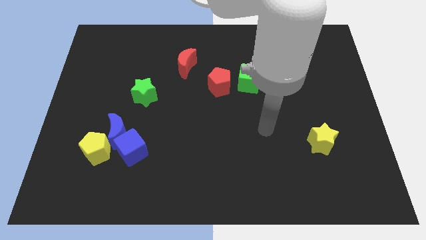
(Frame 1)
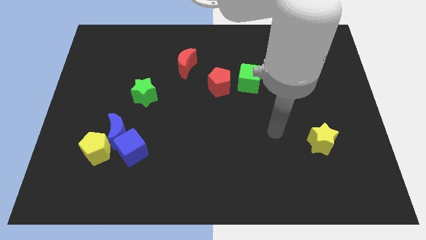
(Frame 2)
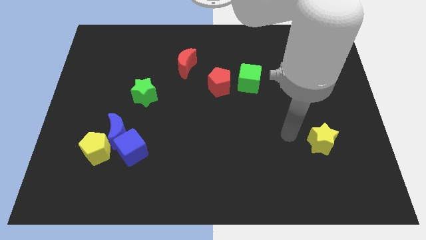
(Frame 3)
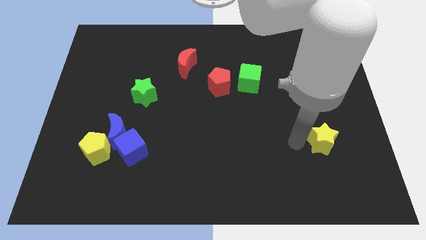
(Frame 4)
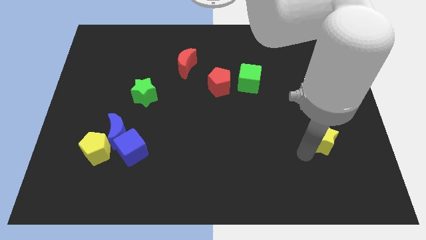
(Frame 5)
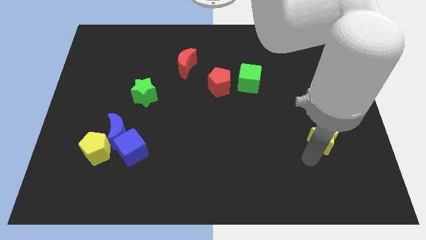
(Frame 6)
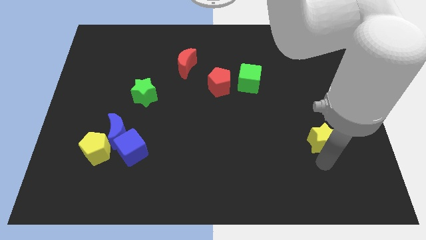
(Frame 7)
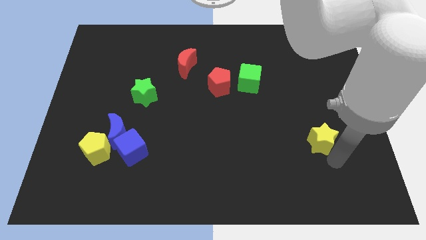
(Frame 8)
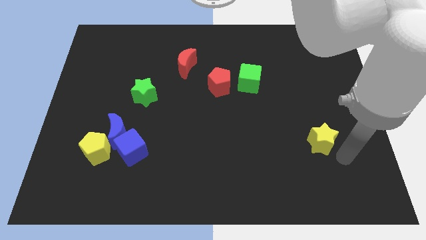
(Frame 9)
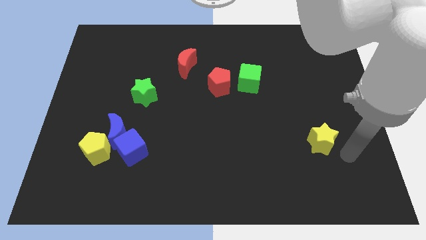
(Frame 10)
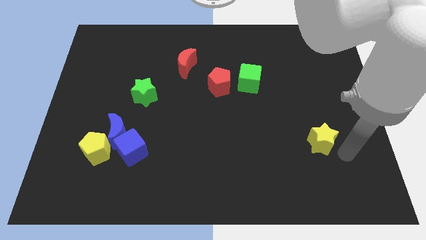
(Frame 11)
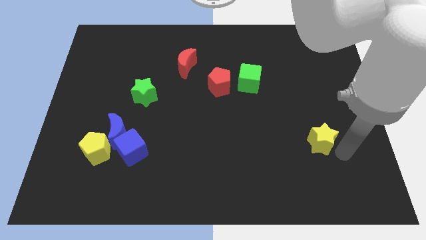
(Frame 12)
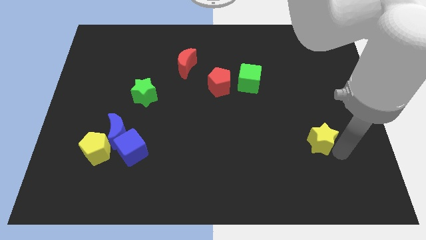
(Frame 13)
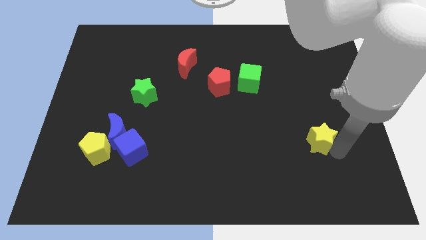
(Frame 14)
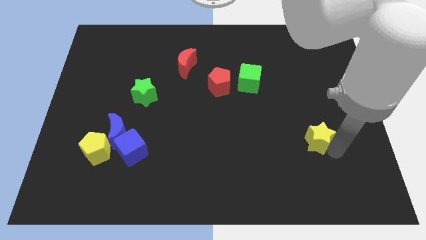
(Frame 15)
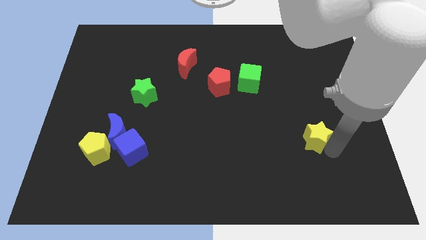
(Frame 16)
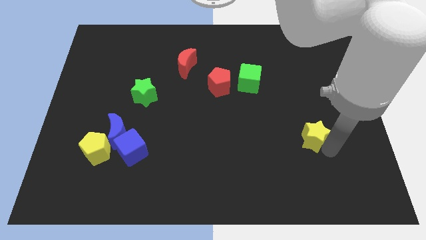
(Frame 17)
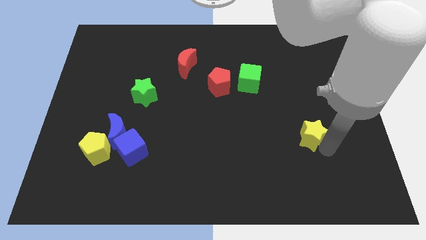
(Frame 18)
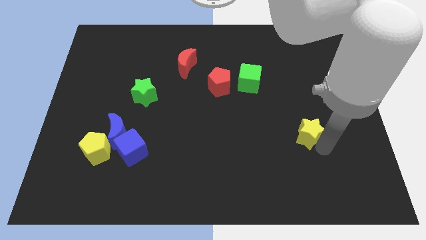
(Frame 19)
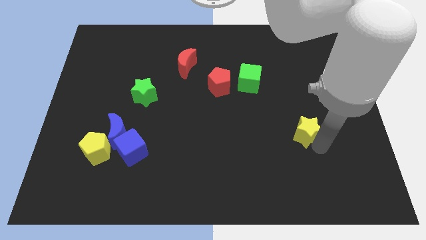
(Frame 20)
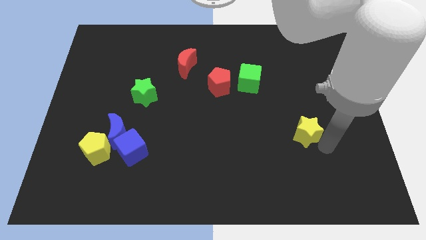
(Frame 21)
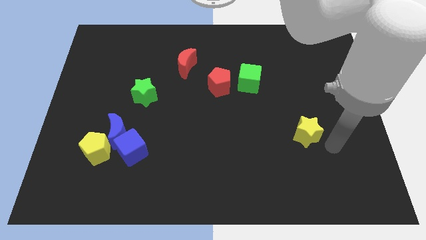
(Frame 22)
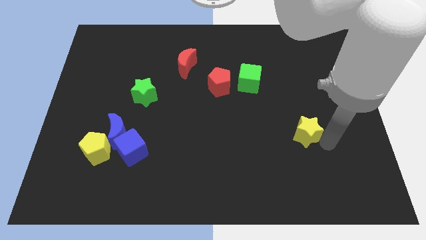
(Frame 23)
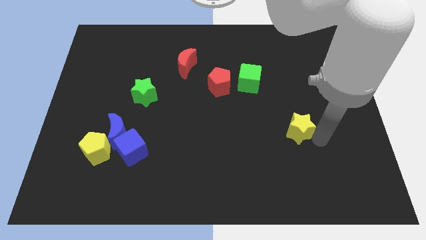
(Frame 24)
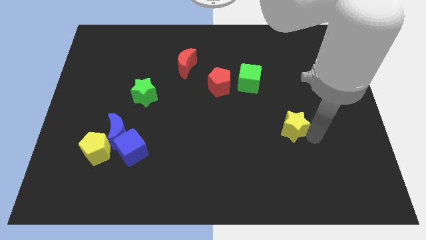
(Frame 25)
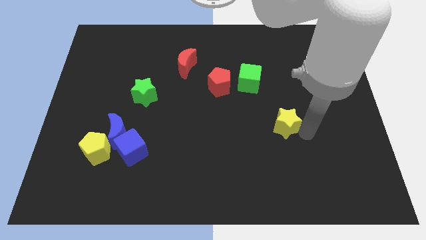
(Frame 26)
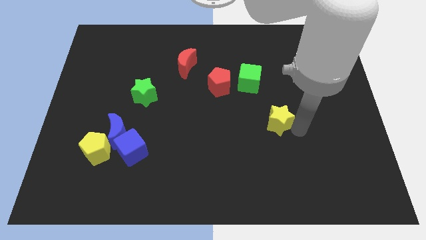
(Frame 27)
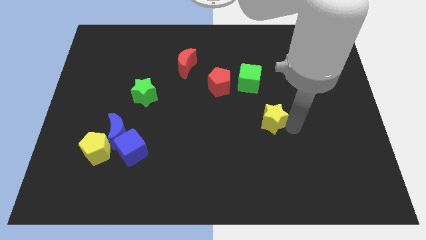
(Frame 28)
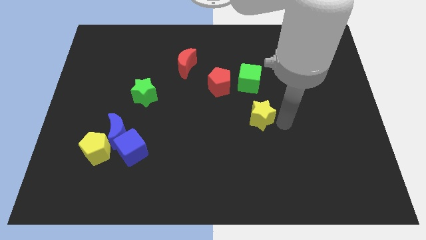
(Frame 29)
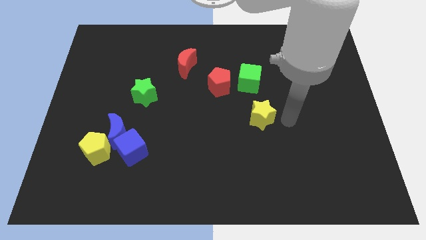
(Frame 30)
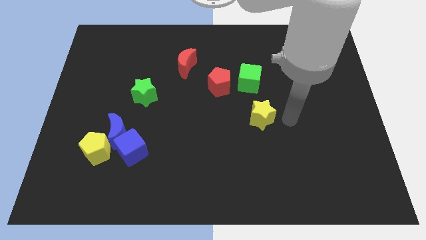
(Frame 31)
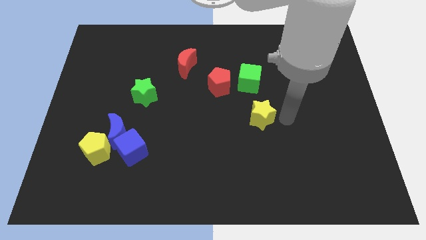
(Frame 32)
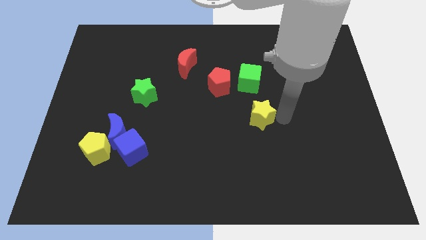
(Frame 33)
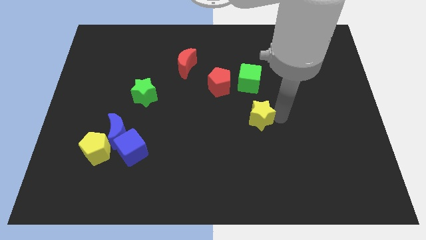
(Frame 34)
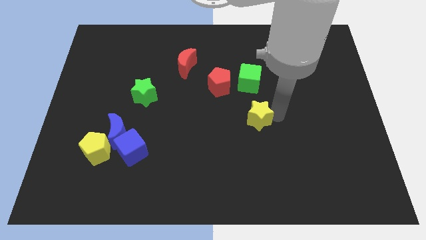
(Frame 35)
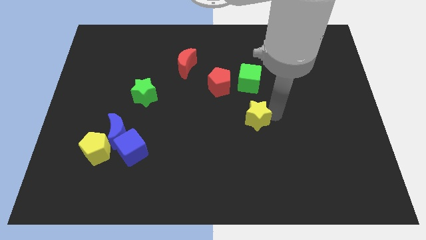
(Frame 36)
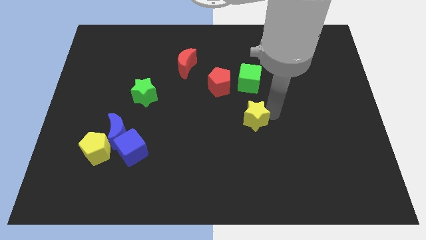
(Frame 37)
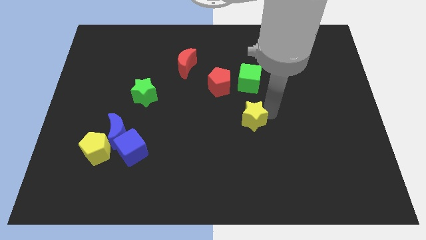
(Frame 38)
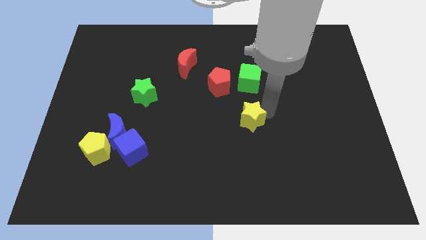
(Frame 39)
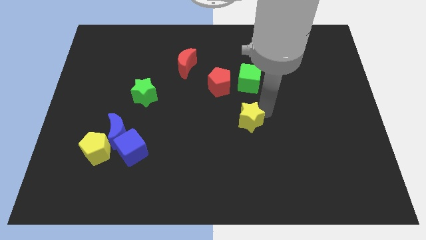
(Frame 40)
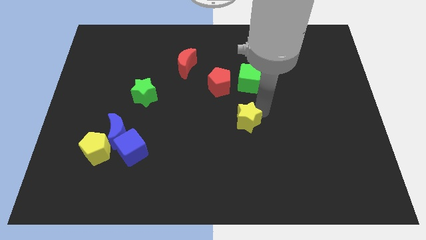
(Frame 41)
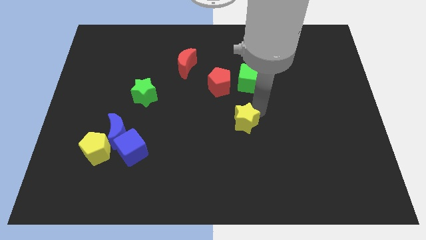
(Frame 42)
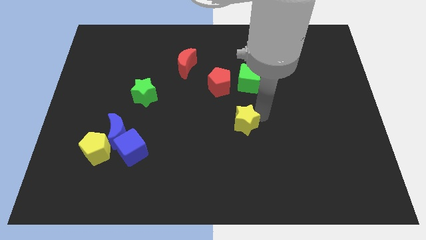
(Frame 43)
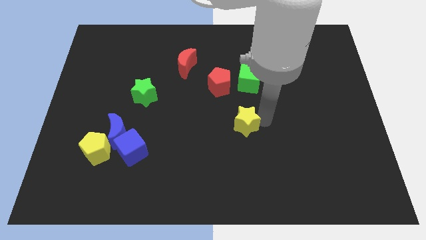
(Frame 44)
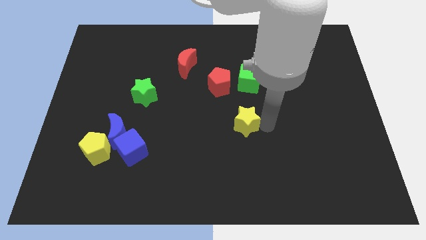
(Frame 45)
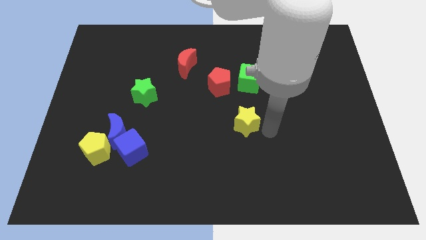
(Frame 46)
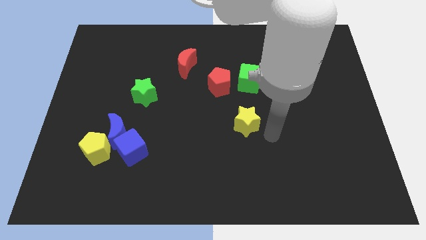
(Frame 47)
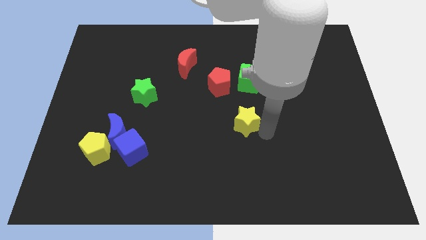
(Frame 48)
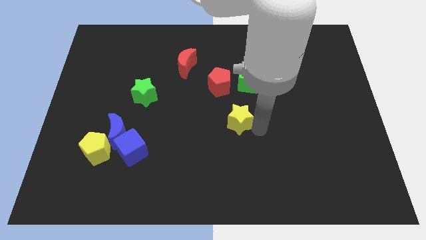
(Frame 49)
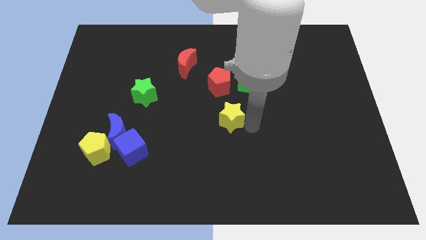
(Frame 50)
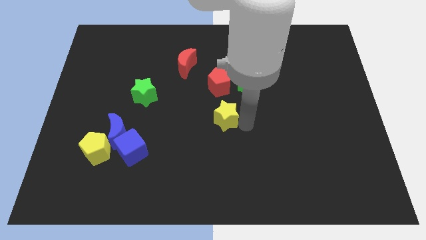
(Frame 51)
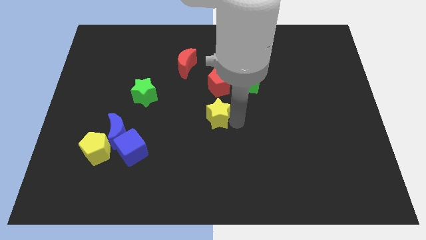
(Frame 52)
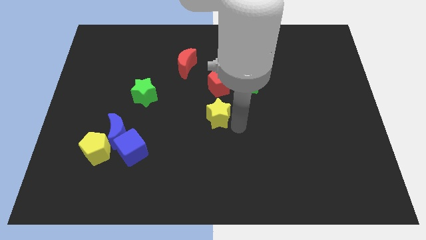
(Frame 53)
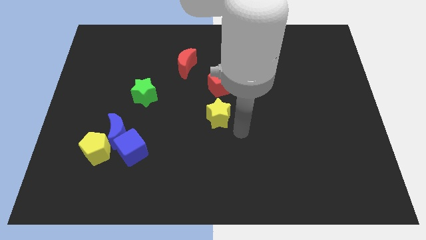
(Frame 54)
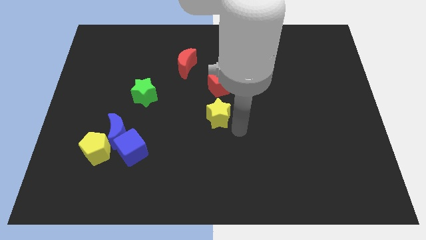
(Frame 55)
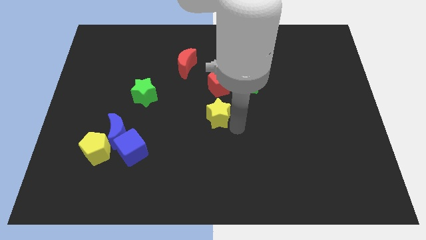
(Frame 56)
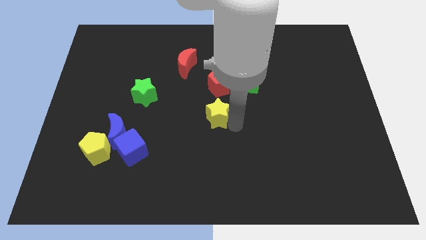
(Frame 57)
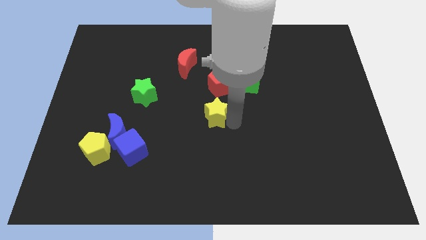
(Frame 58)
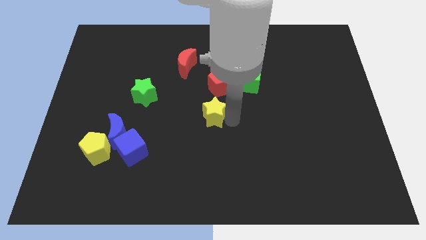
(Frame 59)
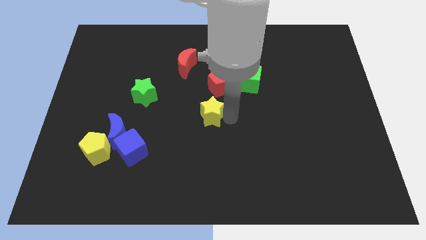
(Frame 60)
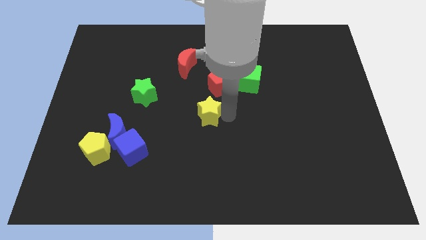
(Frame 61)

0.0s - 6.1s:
put the yellow star diagonally down and to the left of the red pentagon

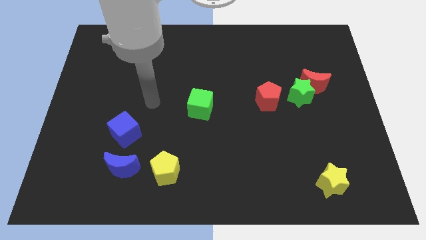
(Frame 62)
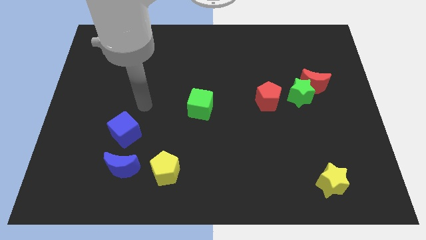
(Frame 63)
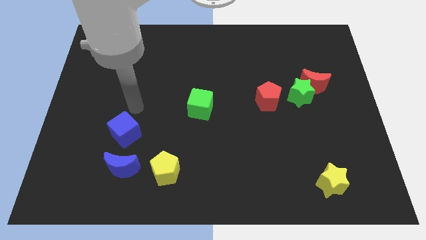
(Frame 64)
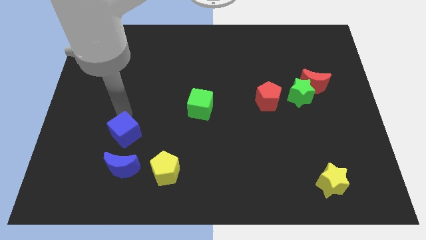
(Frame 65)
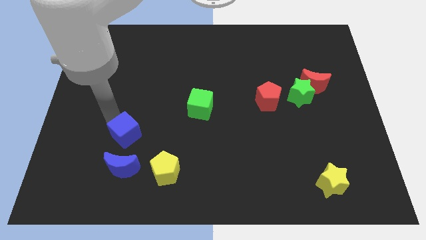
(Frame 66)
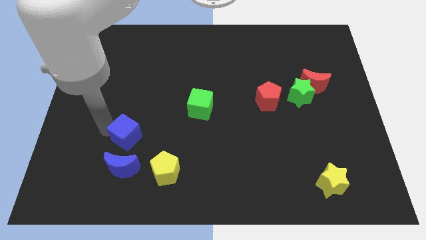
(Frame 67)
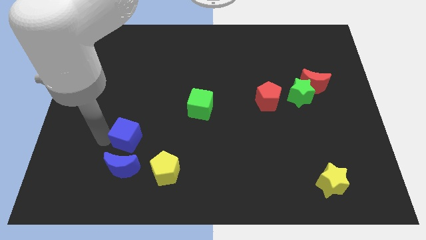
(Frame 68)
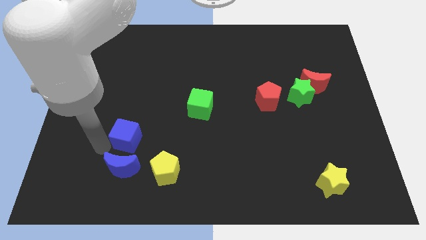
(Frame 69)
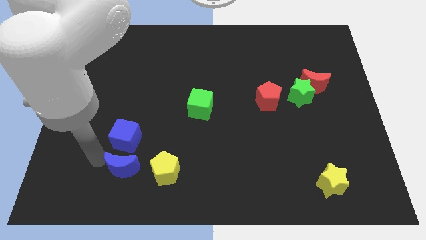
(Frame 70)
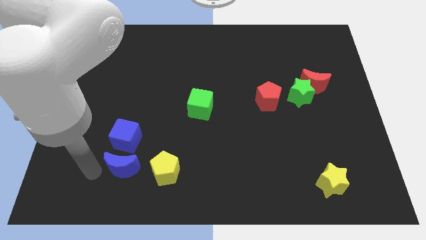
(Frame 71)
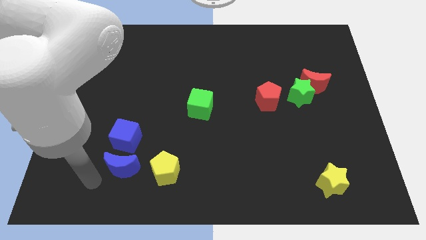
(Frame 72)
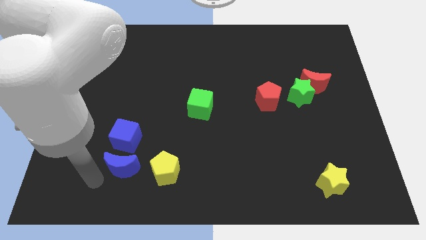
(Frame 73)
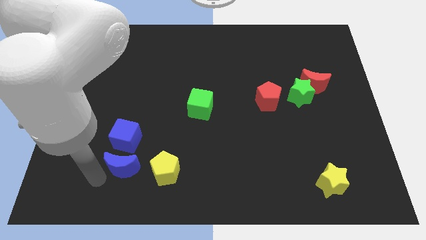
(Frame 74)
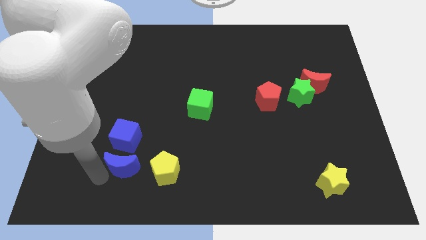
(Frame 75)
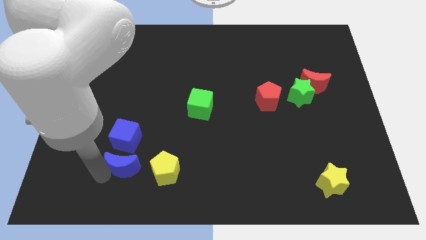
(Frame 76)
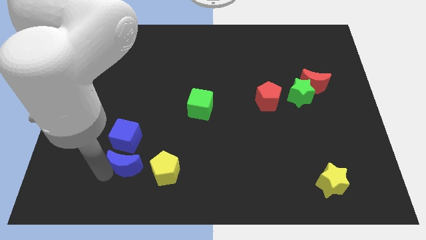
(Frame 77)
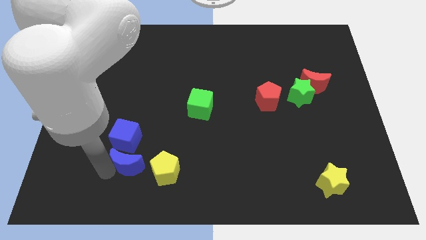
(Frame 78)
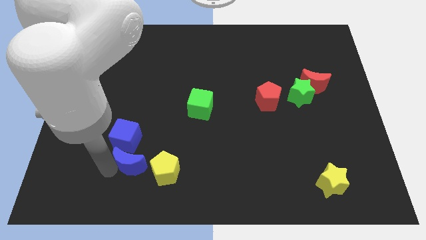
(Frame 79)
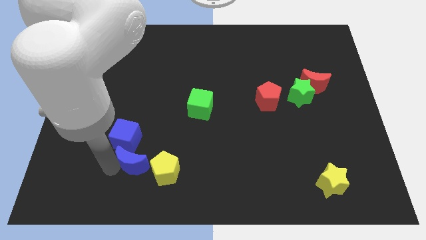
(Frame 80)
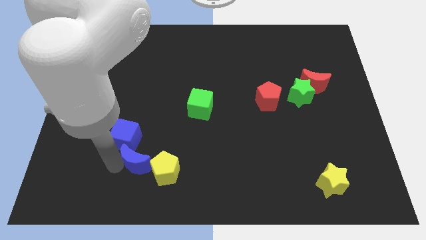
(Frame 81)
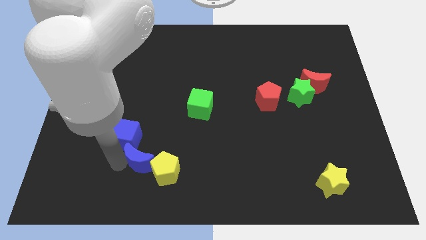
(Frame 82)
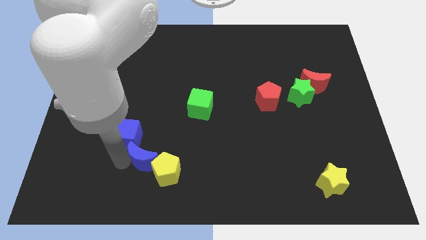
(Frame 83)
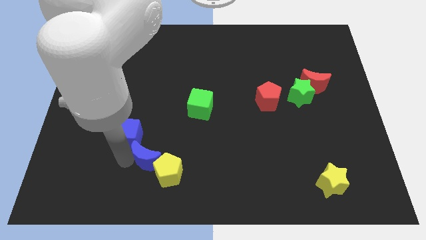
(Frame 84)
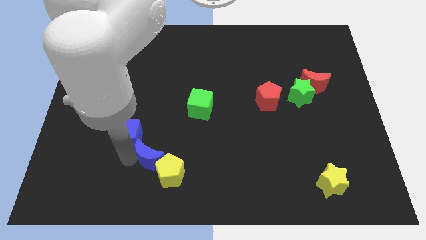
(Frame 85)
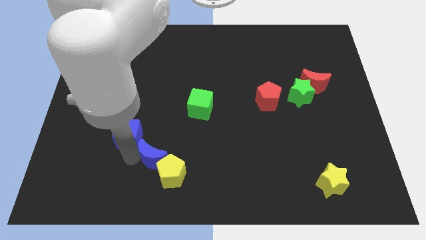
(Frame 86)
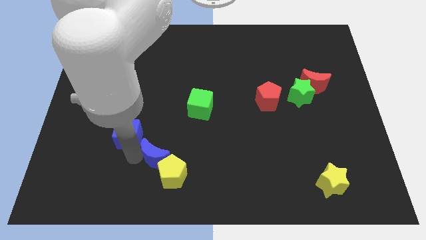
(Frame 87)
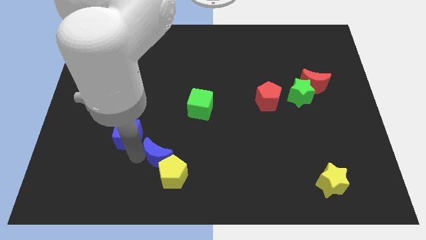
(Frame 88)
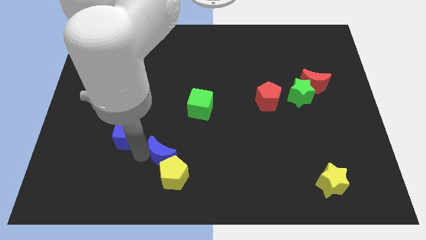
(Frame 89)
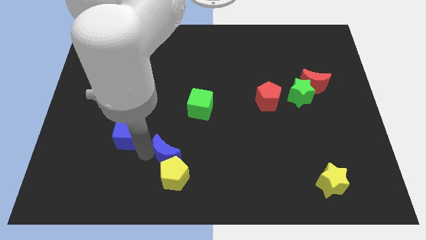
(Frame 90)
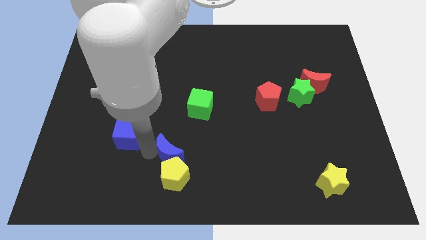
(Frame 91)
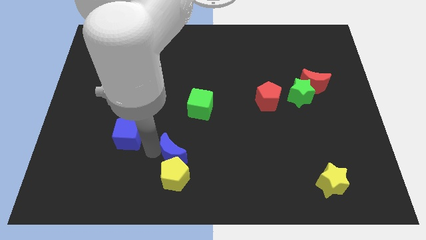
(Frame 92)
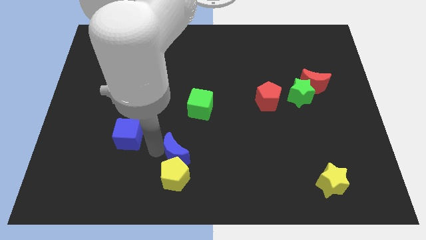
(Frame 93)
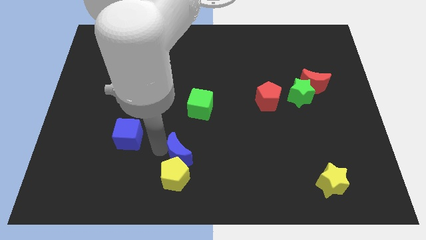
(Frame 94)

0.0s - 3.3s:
move the blue moon below the green cube
